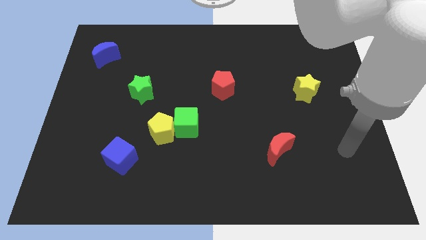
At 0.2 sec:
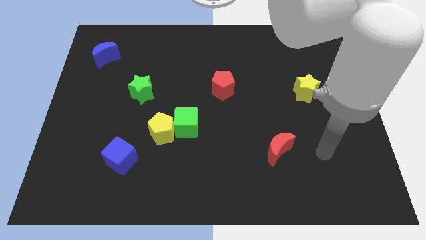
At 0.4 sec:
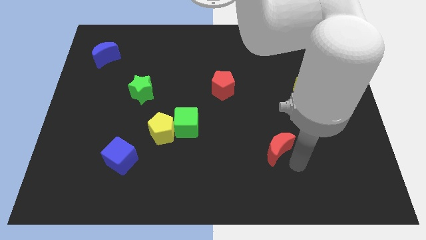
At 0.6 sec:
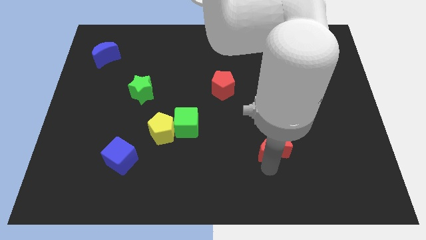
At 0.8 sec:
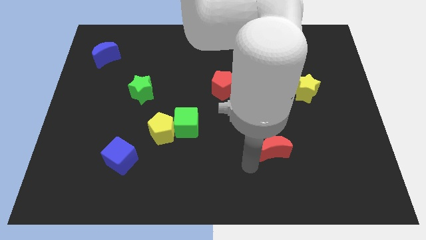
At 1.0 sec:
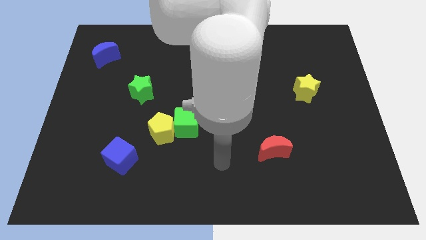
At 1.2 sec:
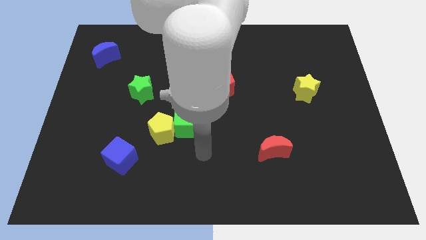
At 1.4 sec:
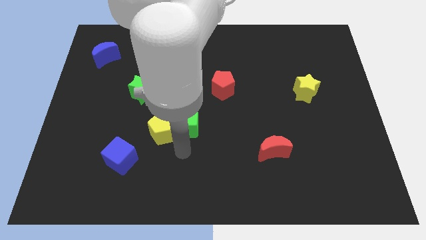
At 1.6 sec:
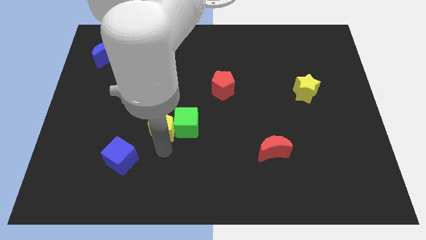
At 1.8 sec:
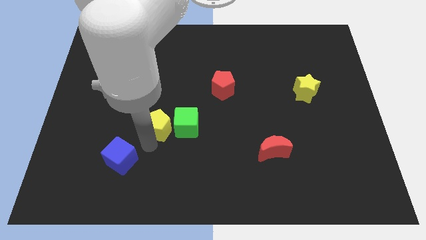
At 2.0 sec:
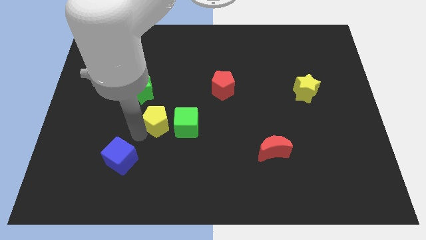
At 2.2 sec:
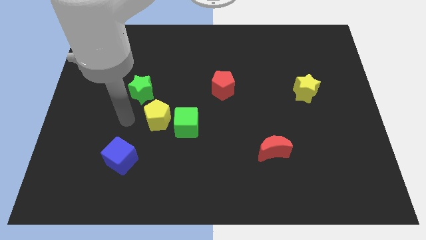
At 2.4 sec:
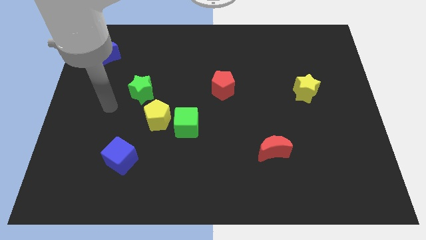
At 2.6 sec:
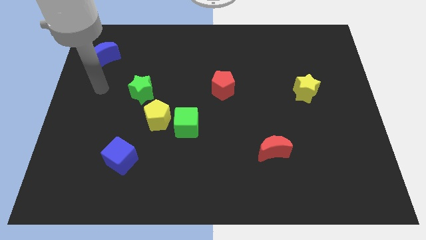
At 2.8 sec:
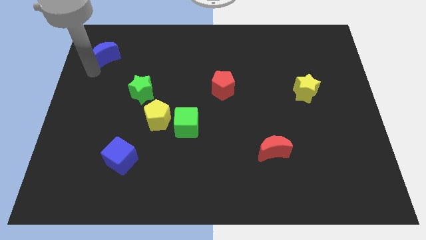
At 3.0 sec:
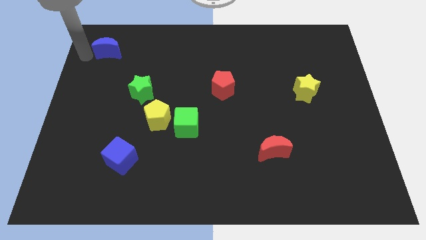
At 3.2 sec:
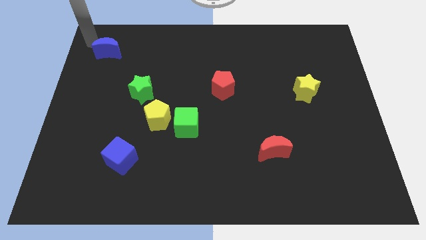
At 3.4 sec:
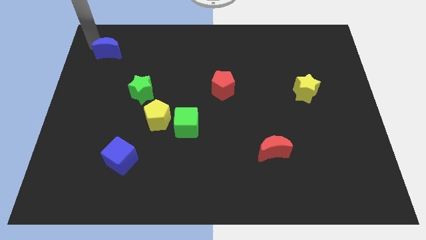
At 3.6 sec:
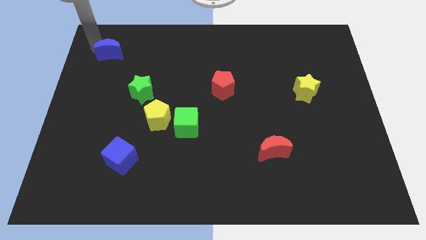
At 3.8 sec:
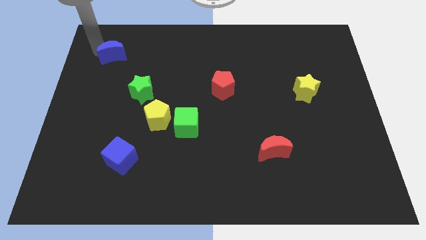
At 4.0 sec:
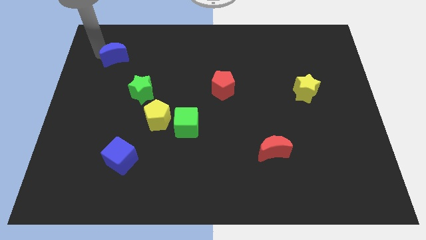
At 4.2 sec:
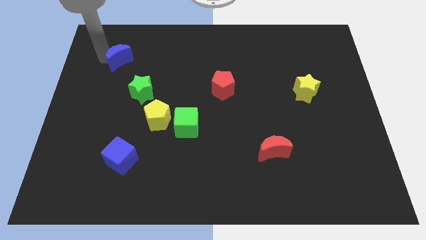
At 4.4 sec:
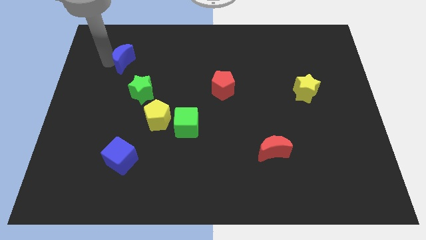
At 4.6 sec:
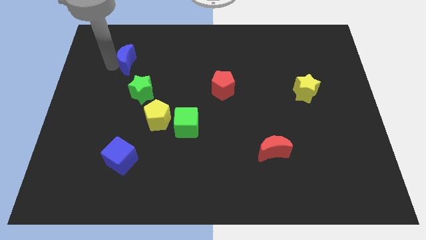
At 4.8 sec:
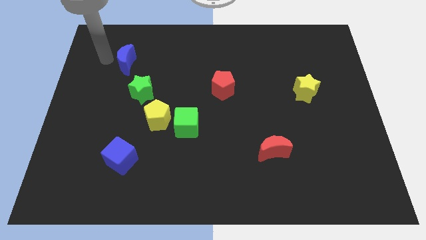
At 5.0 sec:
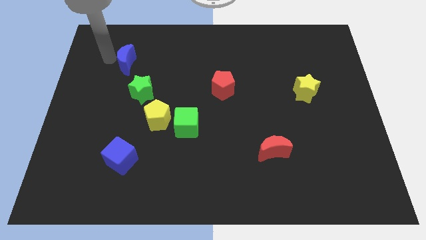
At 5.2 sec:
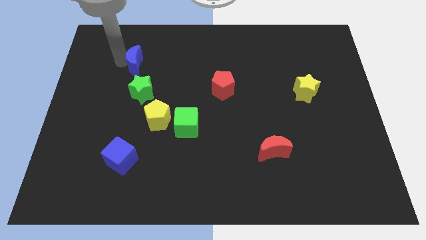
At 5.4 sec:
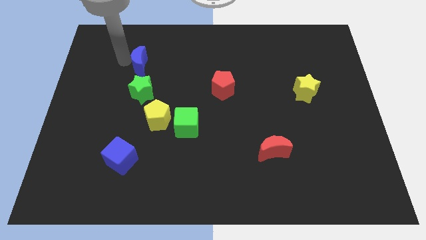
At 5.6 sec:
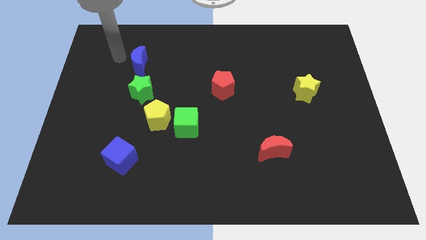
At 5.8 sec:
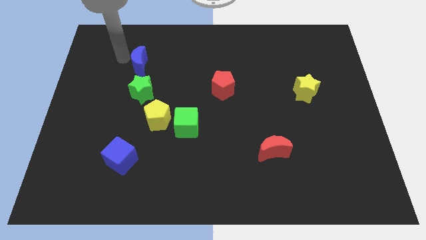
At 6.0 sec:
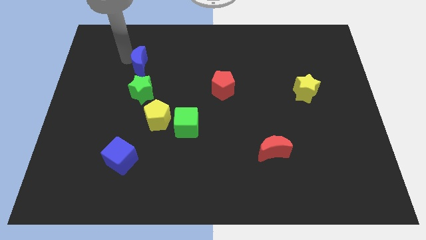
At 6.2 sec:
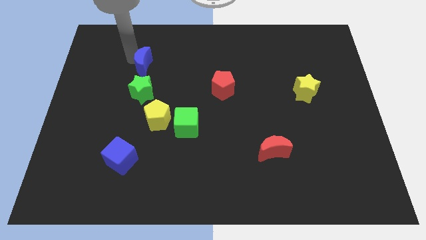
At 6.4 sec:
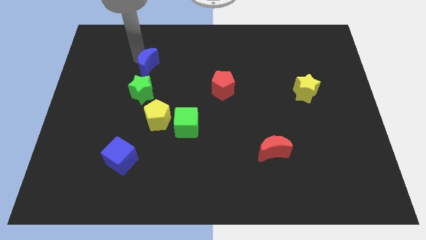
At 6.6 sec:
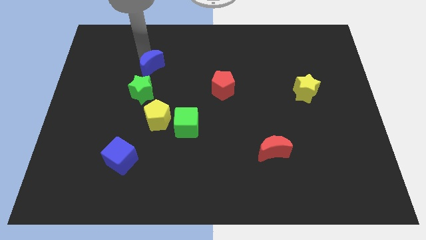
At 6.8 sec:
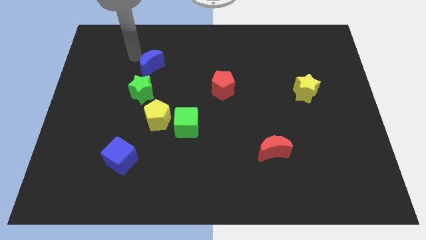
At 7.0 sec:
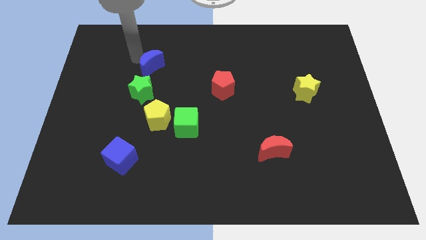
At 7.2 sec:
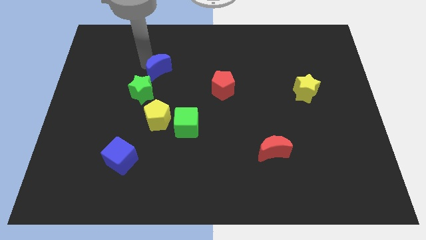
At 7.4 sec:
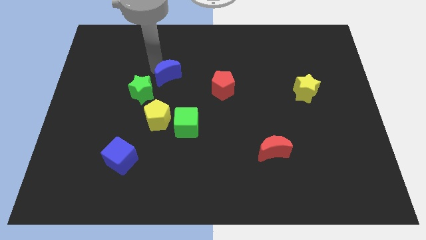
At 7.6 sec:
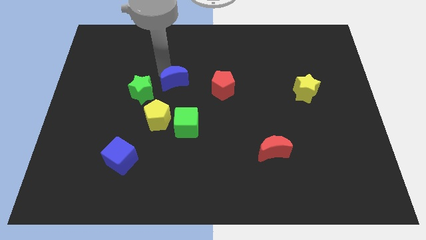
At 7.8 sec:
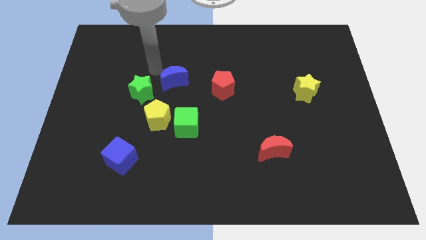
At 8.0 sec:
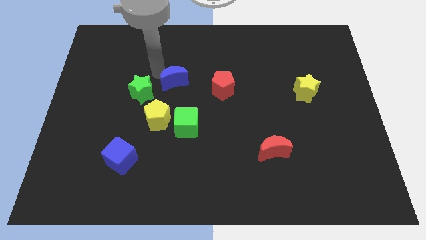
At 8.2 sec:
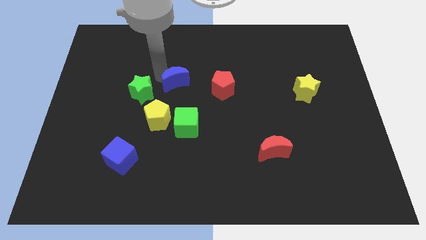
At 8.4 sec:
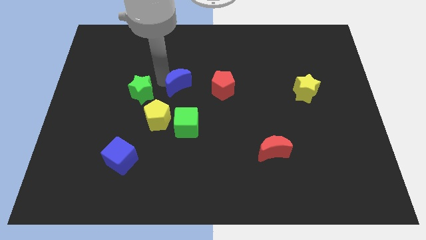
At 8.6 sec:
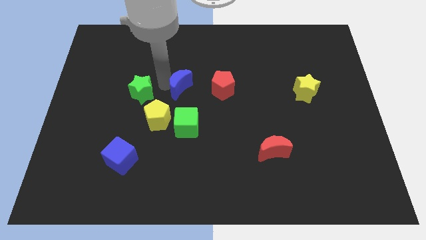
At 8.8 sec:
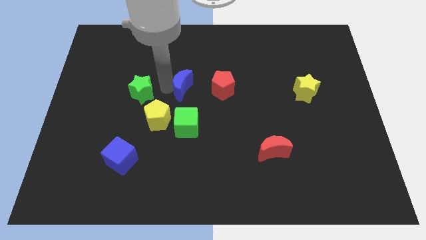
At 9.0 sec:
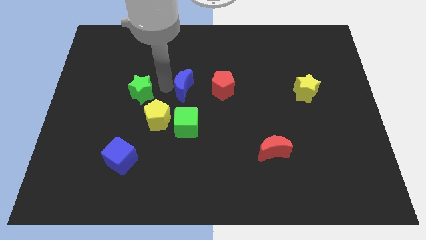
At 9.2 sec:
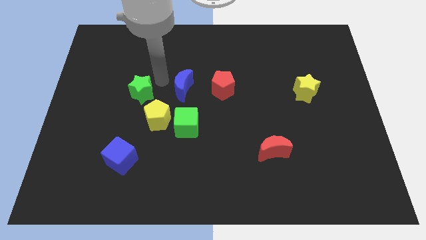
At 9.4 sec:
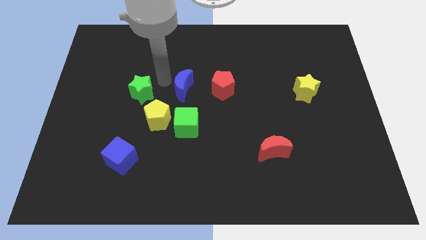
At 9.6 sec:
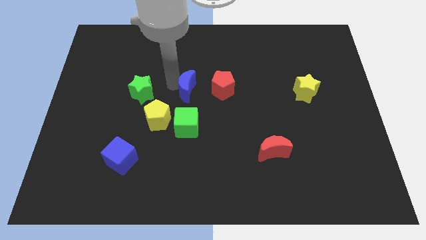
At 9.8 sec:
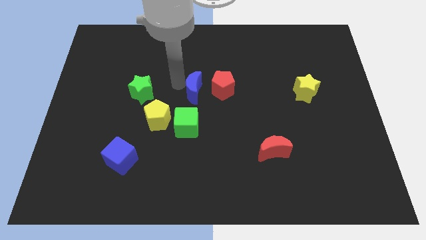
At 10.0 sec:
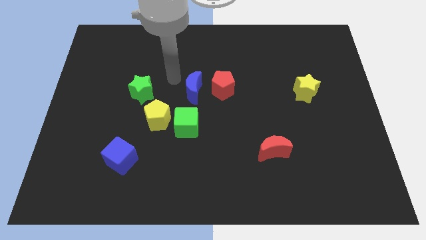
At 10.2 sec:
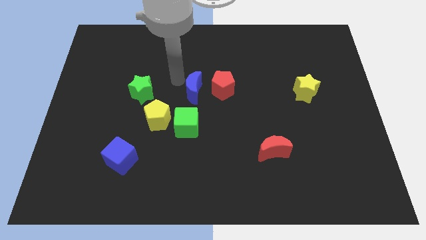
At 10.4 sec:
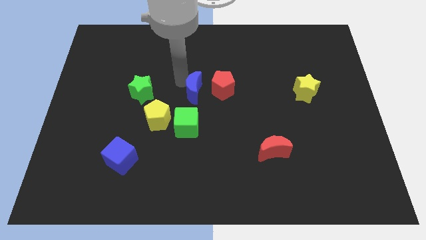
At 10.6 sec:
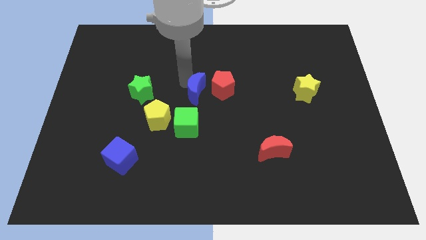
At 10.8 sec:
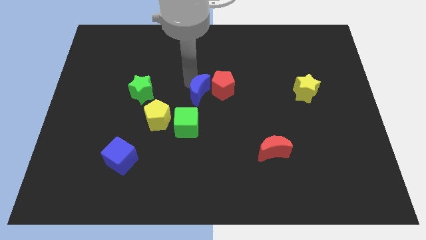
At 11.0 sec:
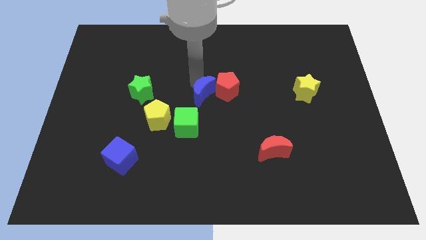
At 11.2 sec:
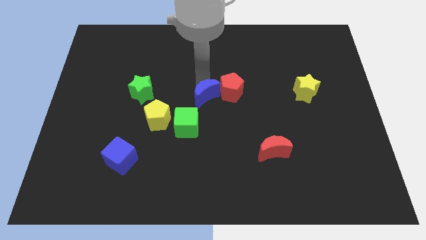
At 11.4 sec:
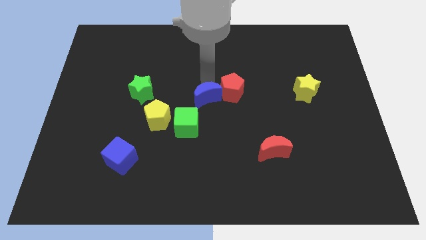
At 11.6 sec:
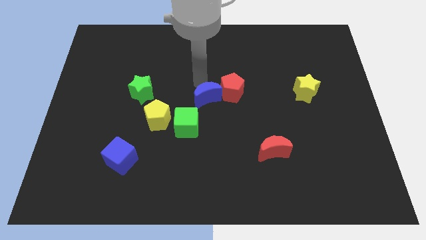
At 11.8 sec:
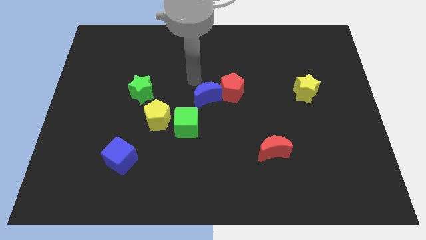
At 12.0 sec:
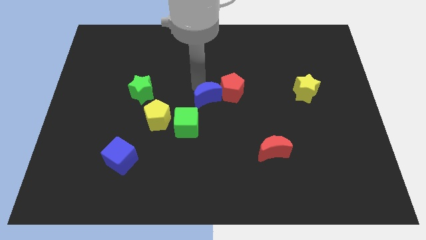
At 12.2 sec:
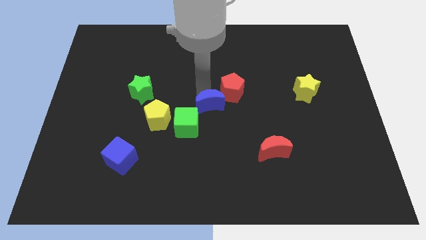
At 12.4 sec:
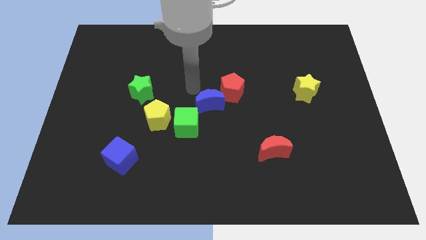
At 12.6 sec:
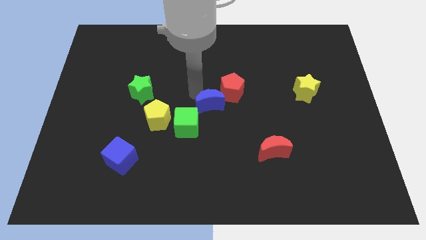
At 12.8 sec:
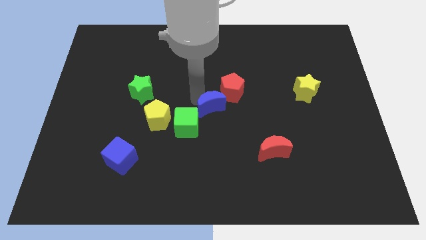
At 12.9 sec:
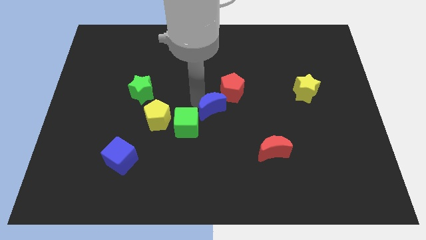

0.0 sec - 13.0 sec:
push the blue moon to the right of the green cube
